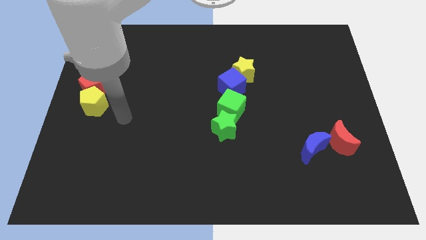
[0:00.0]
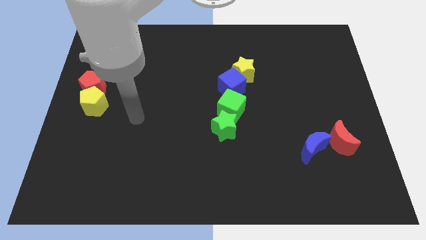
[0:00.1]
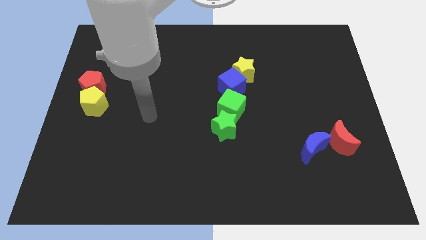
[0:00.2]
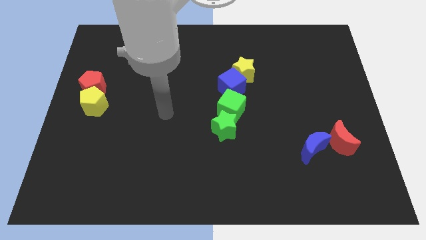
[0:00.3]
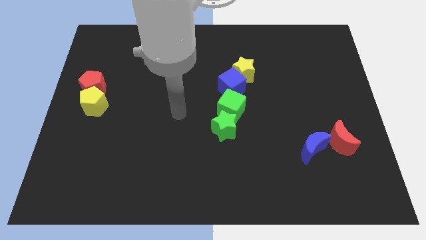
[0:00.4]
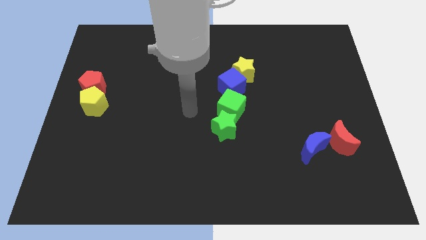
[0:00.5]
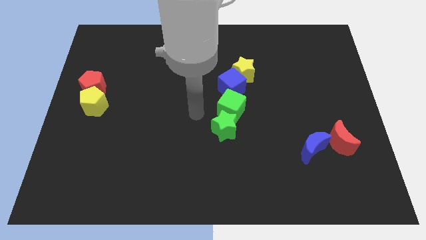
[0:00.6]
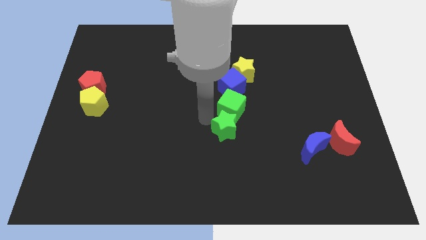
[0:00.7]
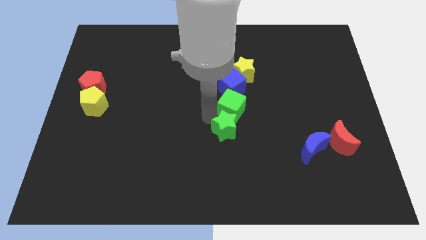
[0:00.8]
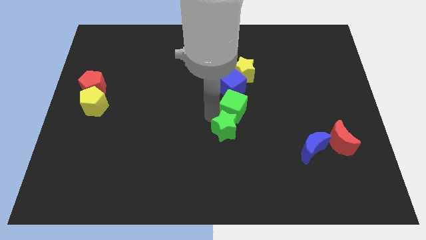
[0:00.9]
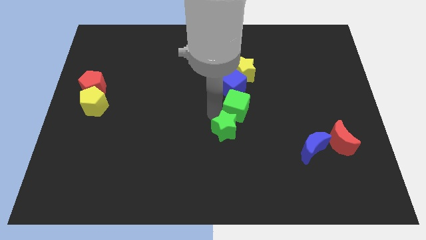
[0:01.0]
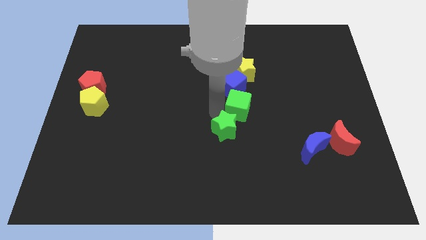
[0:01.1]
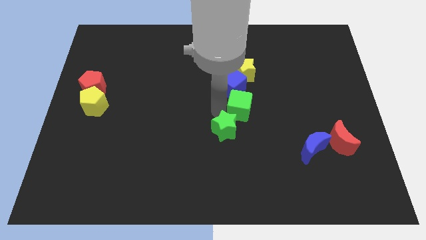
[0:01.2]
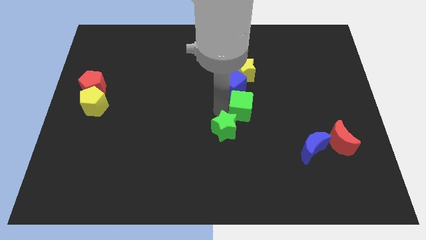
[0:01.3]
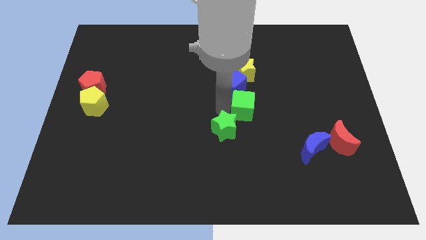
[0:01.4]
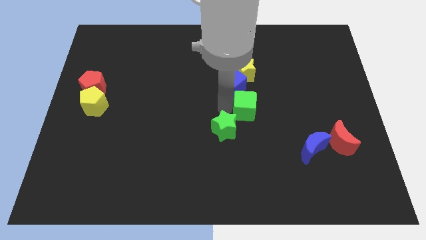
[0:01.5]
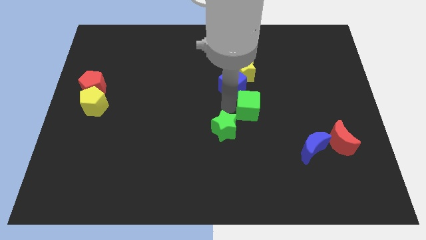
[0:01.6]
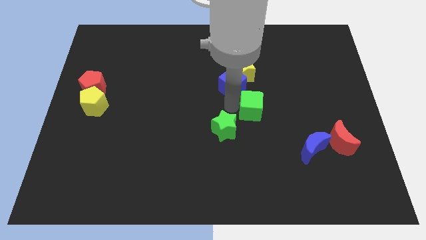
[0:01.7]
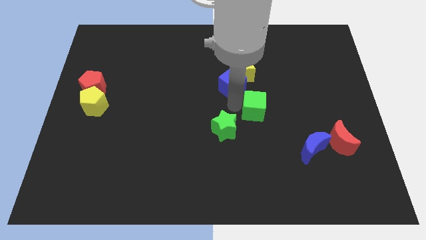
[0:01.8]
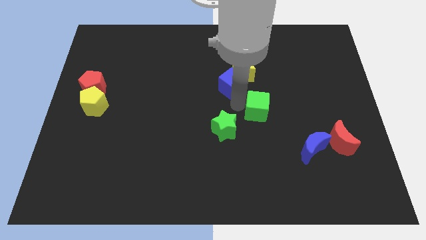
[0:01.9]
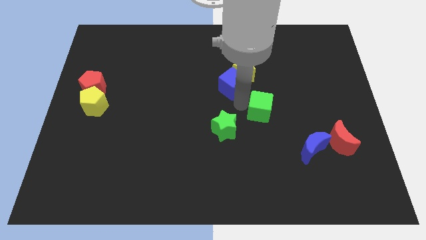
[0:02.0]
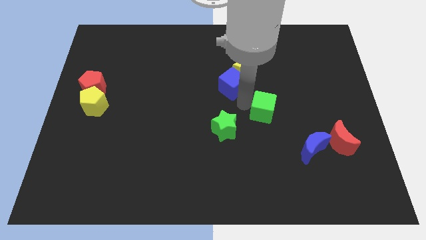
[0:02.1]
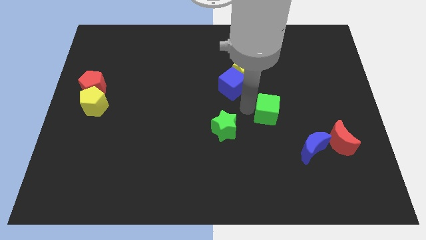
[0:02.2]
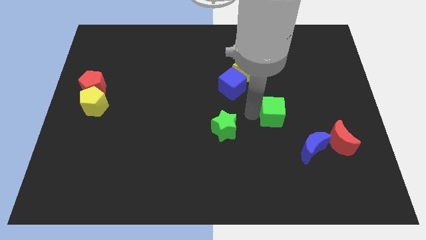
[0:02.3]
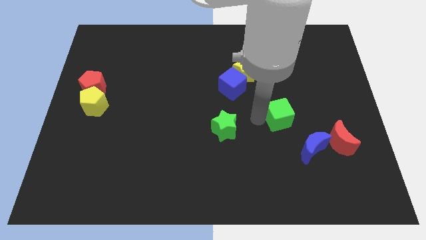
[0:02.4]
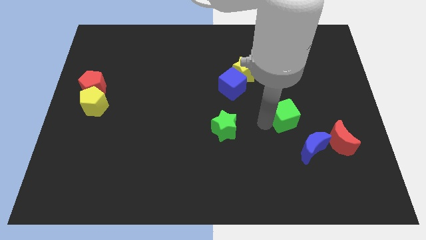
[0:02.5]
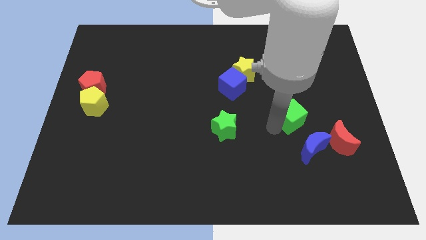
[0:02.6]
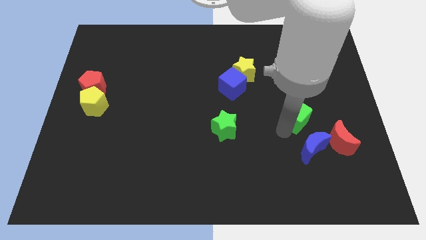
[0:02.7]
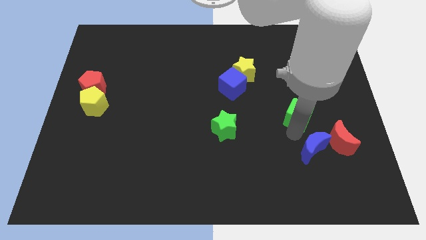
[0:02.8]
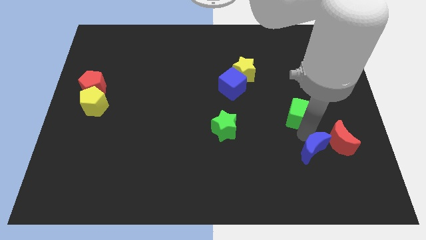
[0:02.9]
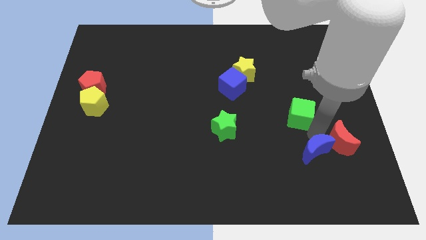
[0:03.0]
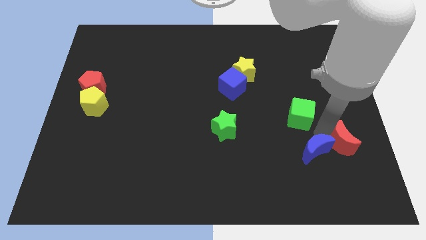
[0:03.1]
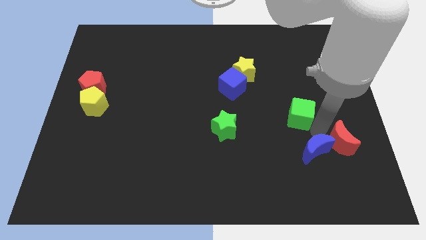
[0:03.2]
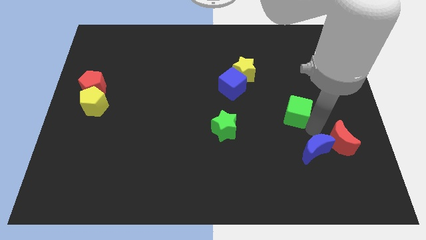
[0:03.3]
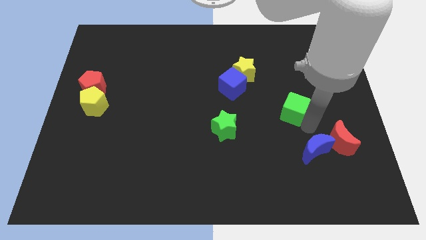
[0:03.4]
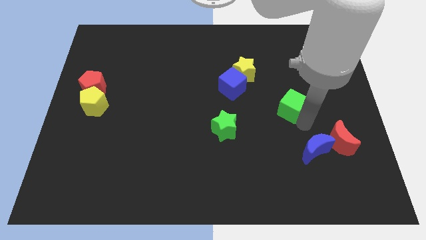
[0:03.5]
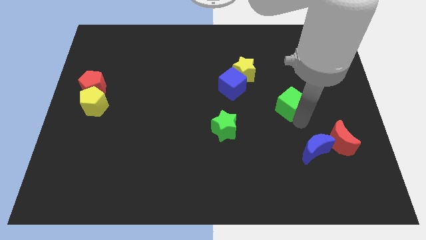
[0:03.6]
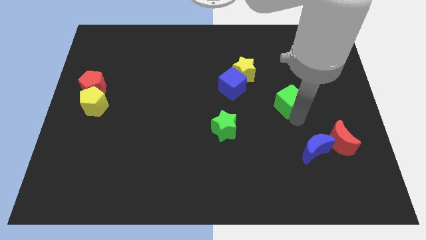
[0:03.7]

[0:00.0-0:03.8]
slightly slide the green cube up and then right

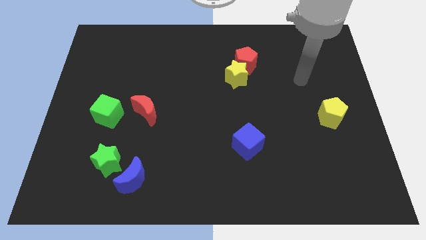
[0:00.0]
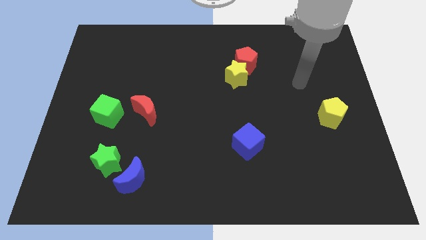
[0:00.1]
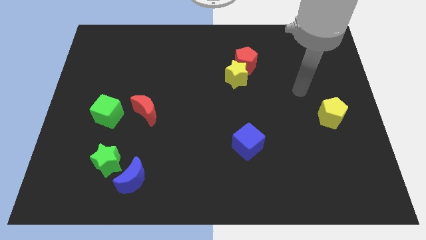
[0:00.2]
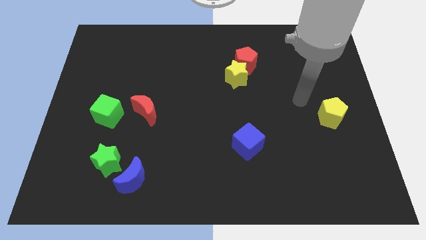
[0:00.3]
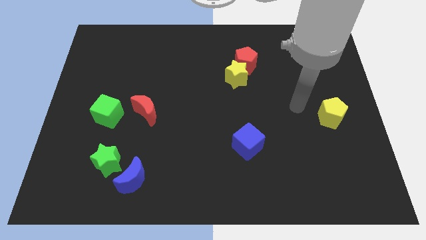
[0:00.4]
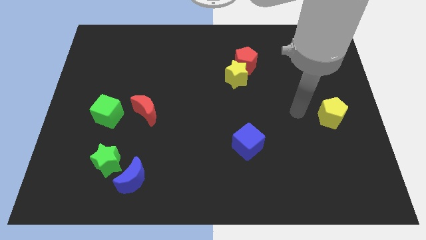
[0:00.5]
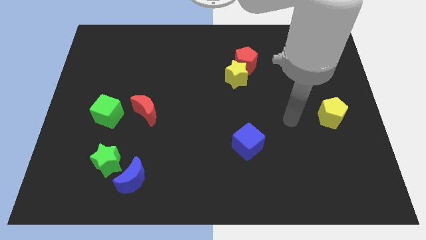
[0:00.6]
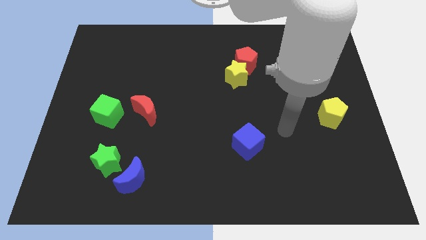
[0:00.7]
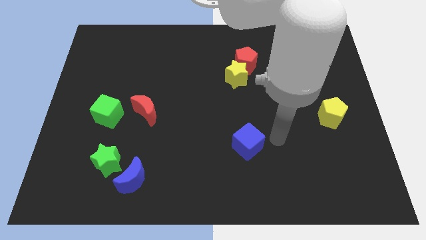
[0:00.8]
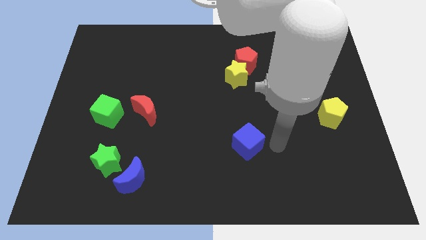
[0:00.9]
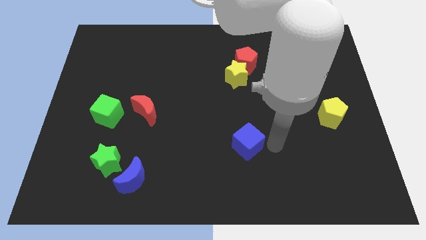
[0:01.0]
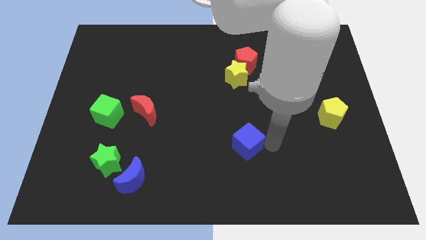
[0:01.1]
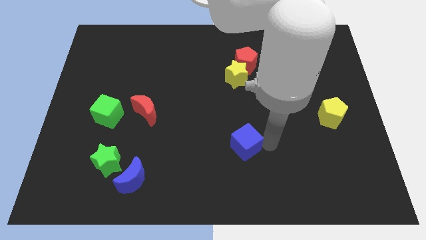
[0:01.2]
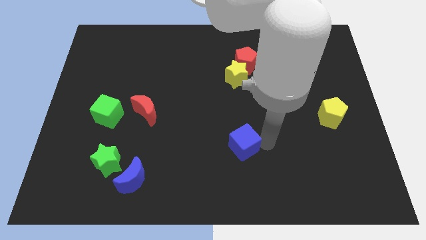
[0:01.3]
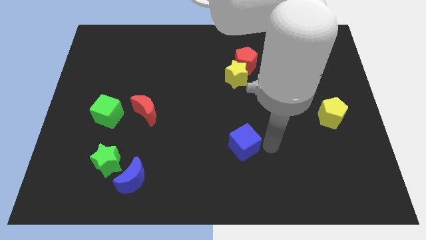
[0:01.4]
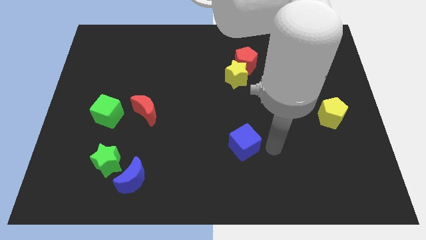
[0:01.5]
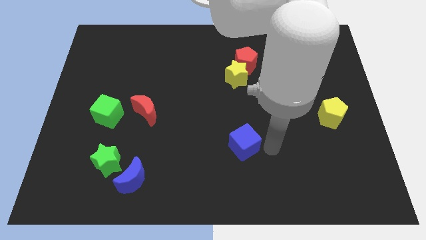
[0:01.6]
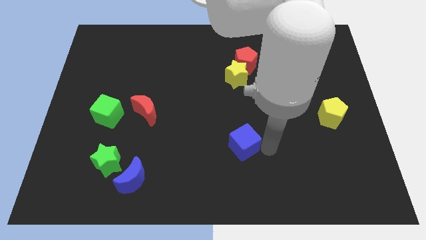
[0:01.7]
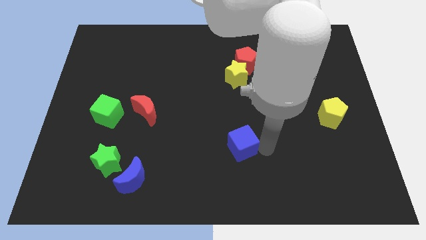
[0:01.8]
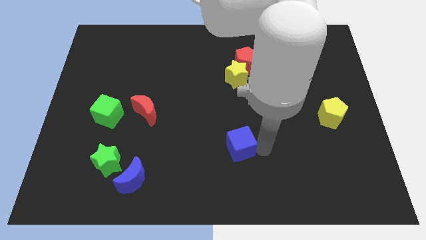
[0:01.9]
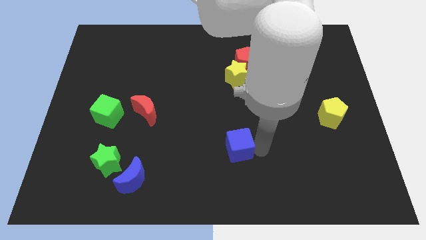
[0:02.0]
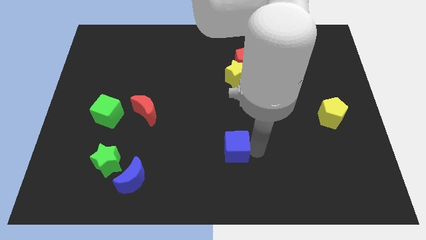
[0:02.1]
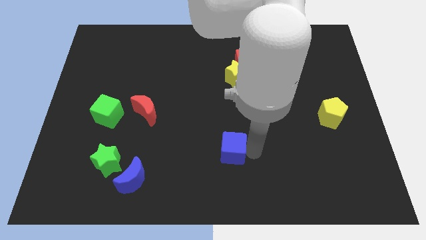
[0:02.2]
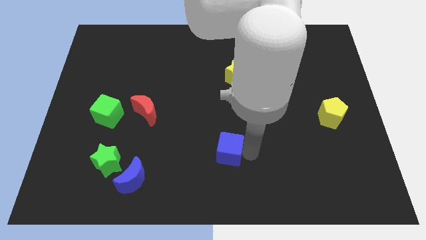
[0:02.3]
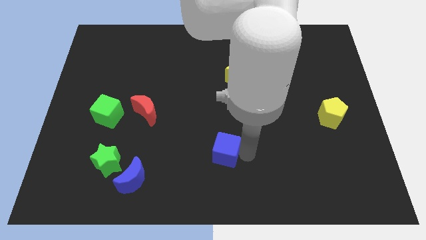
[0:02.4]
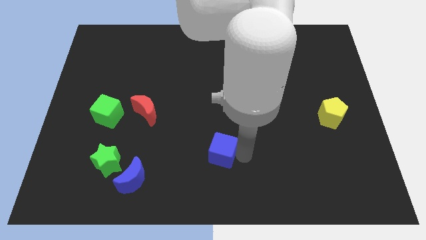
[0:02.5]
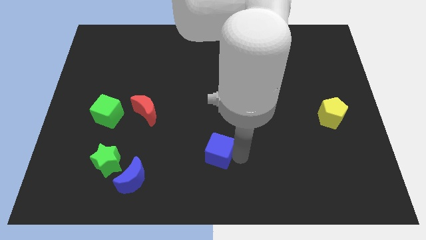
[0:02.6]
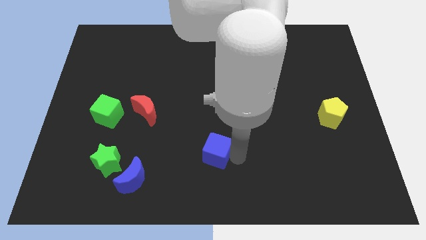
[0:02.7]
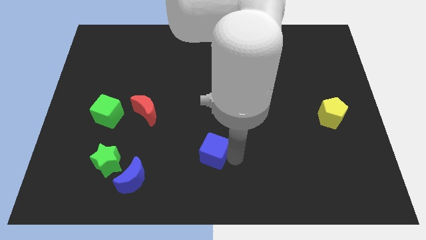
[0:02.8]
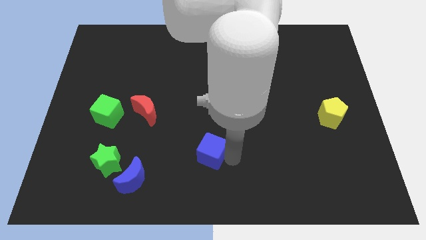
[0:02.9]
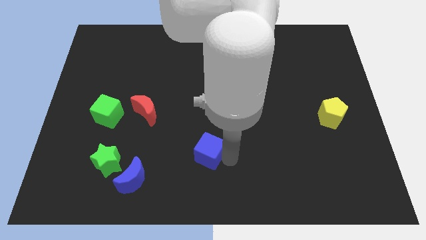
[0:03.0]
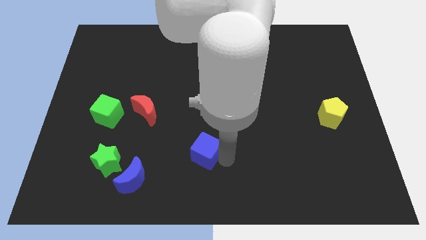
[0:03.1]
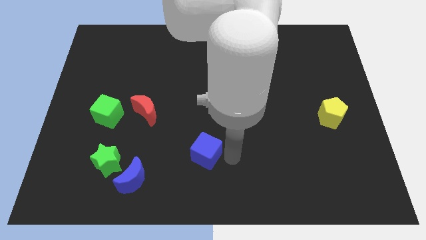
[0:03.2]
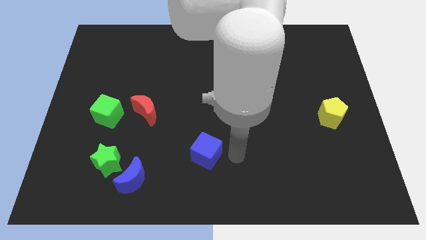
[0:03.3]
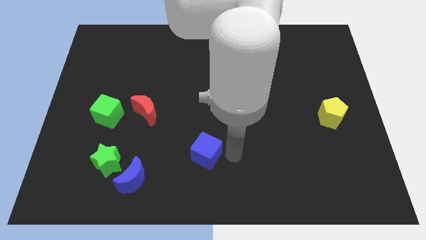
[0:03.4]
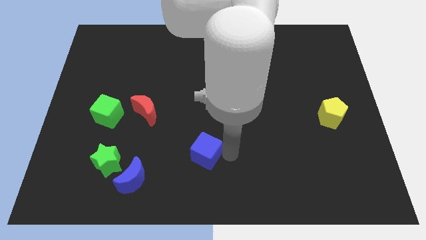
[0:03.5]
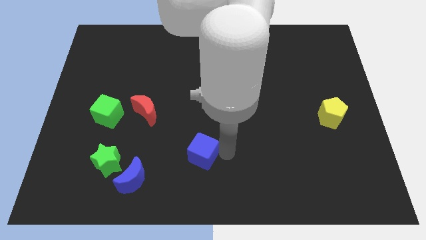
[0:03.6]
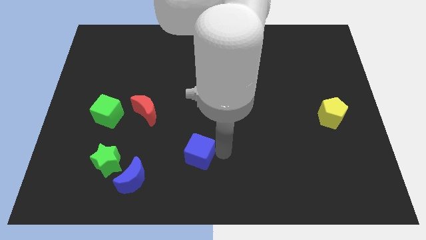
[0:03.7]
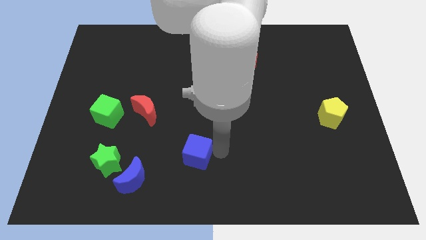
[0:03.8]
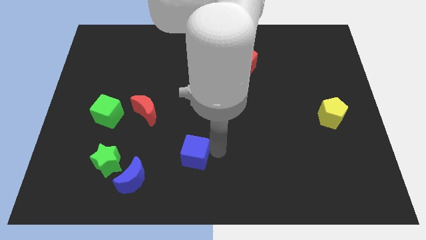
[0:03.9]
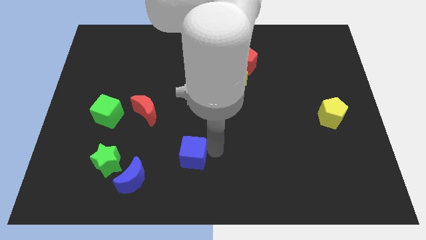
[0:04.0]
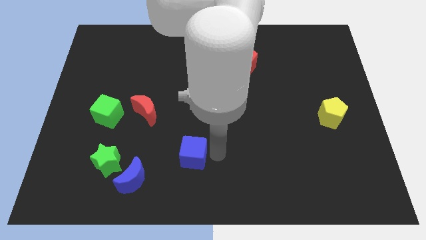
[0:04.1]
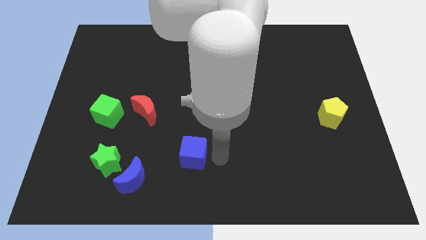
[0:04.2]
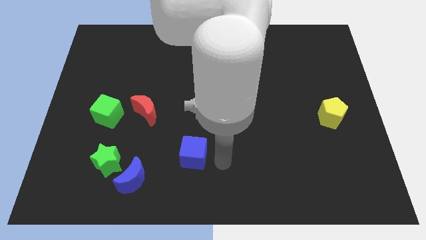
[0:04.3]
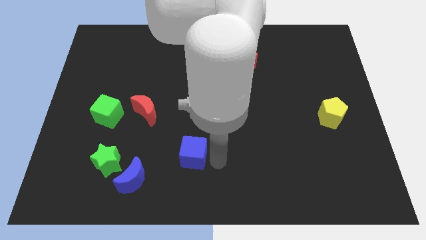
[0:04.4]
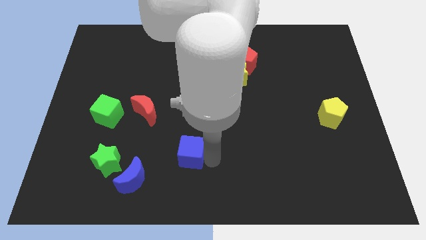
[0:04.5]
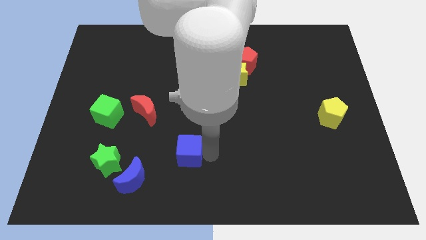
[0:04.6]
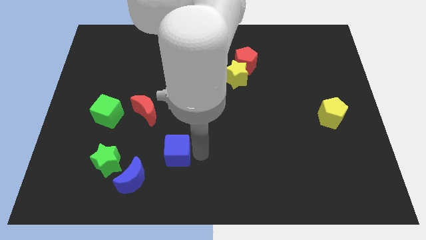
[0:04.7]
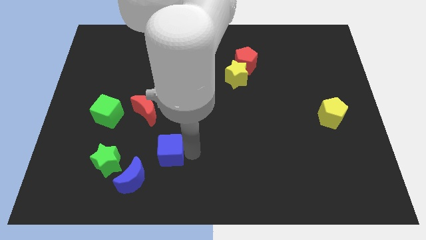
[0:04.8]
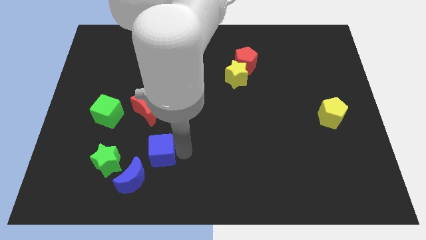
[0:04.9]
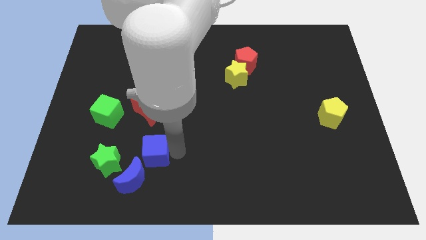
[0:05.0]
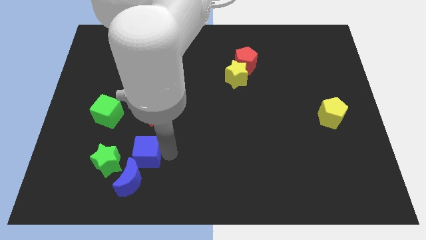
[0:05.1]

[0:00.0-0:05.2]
push the blue cube to the left
